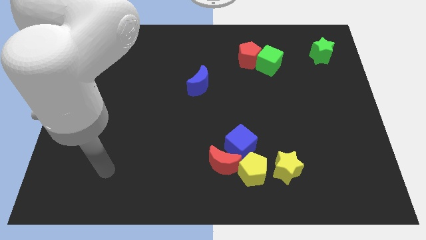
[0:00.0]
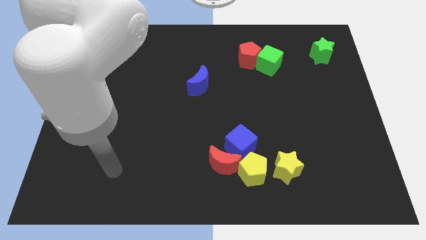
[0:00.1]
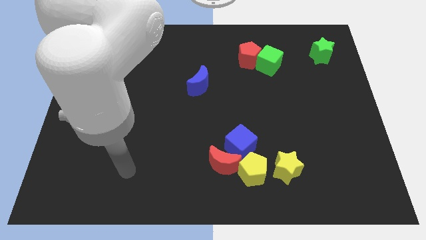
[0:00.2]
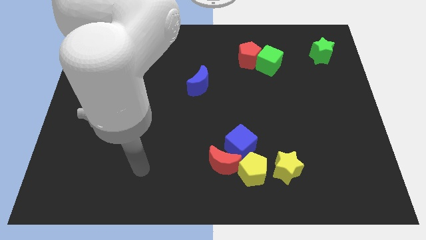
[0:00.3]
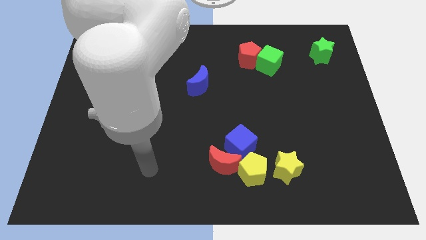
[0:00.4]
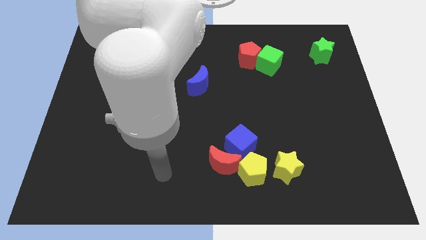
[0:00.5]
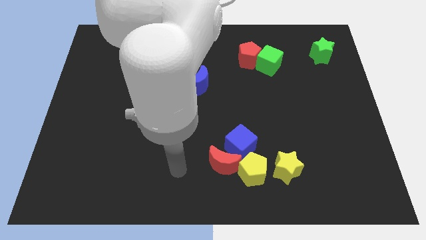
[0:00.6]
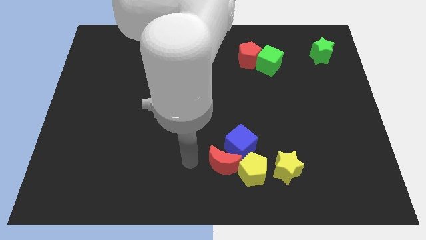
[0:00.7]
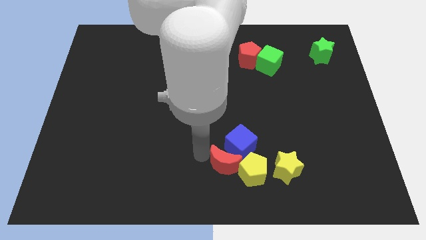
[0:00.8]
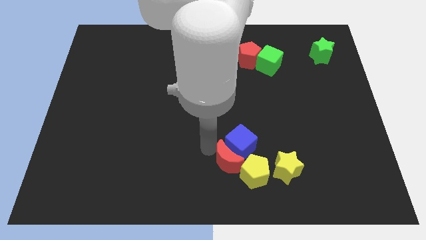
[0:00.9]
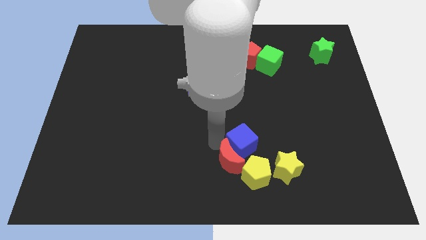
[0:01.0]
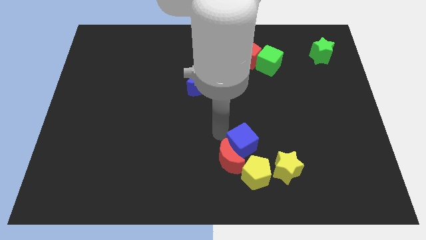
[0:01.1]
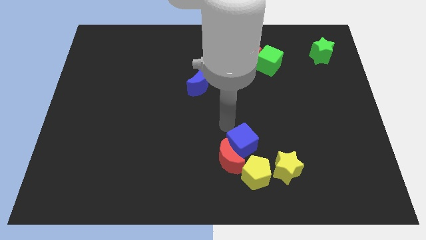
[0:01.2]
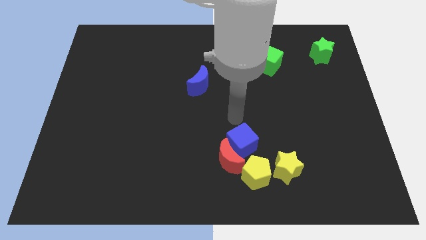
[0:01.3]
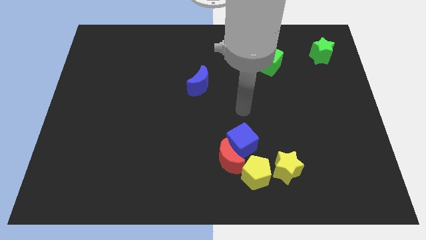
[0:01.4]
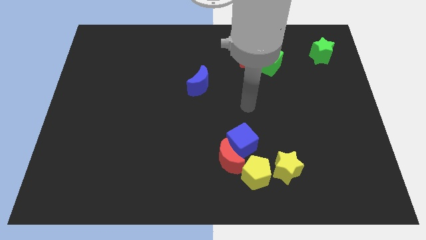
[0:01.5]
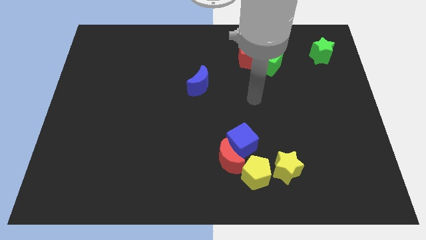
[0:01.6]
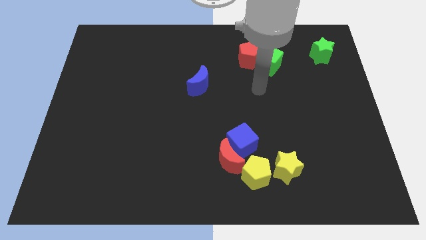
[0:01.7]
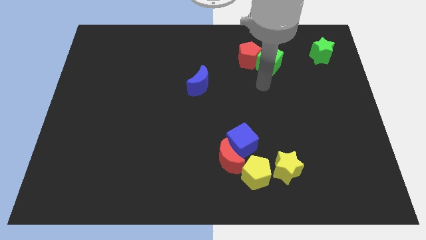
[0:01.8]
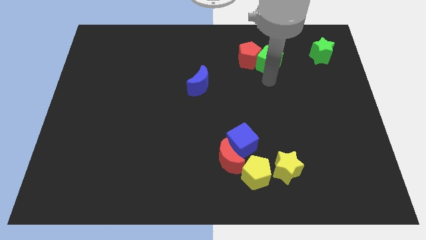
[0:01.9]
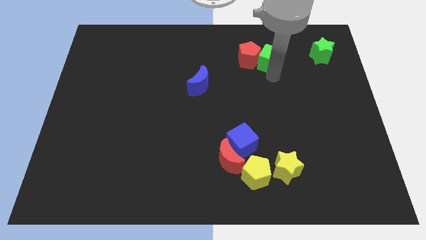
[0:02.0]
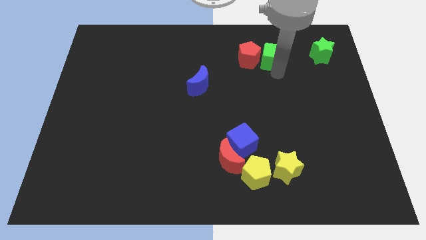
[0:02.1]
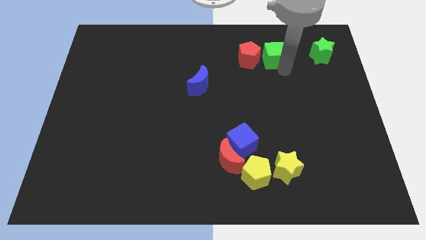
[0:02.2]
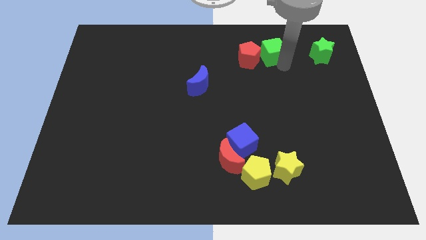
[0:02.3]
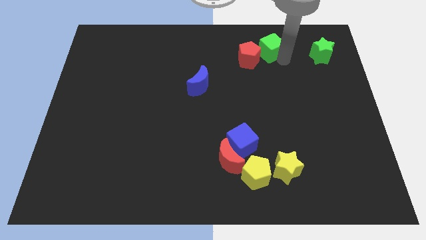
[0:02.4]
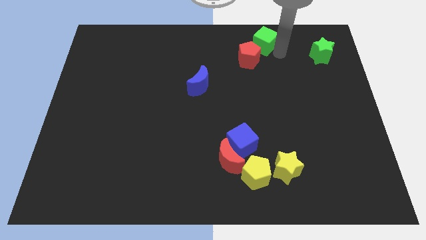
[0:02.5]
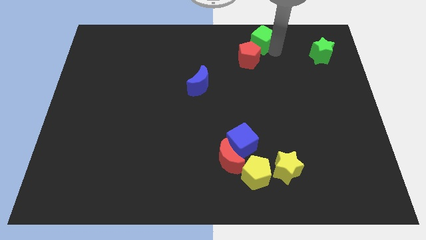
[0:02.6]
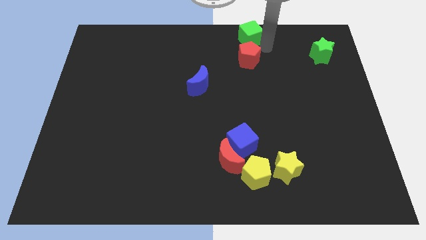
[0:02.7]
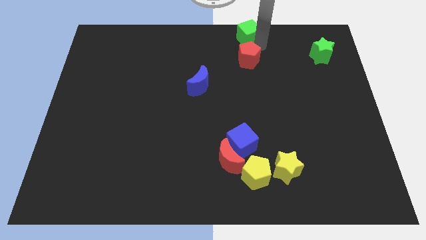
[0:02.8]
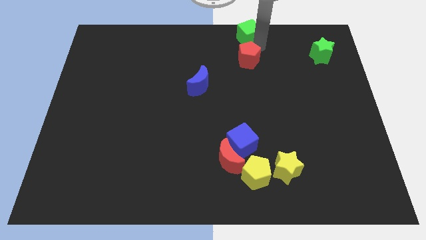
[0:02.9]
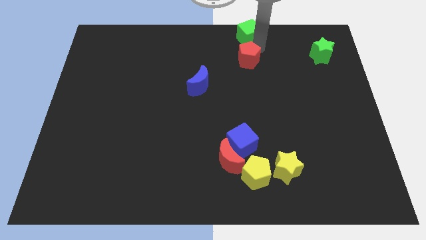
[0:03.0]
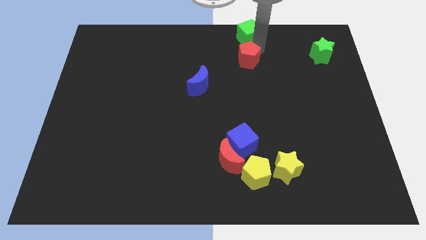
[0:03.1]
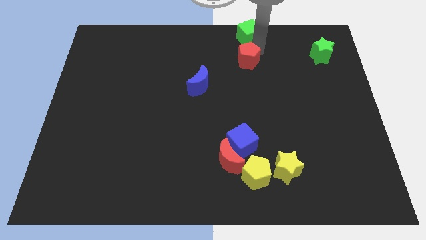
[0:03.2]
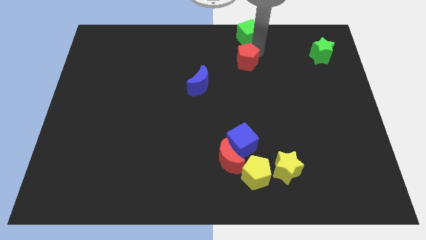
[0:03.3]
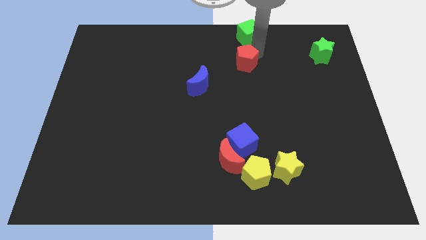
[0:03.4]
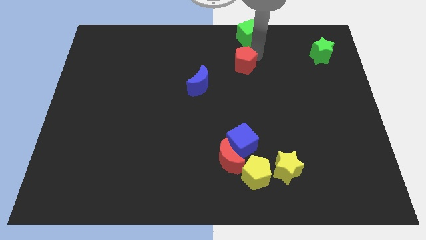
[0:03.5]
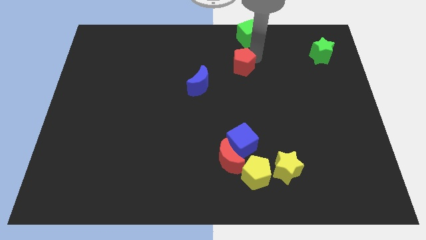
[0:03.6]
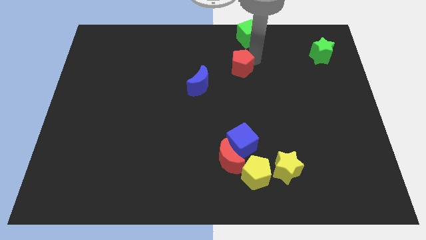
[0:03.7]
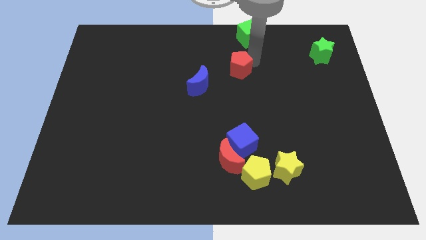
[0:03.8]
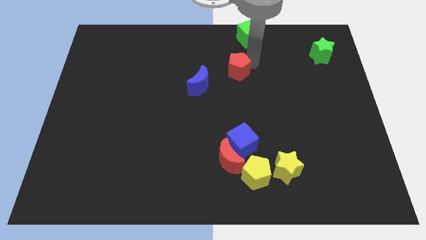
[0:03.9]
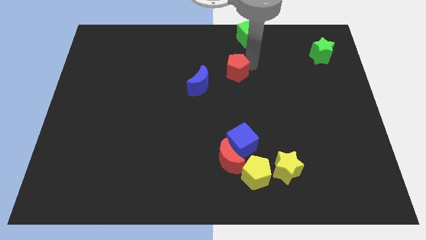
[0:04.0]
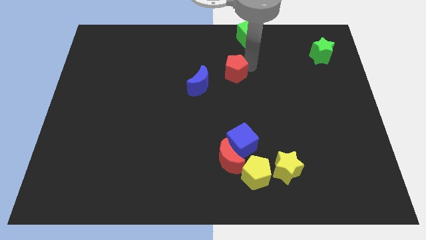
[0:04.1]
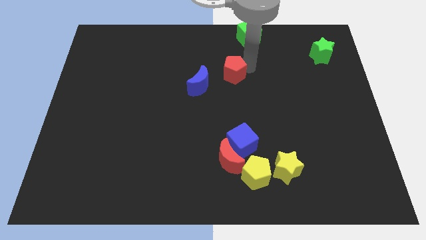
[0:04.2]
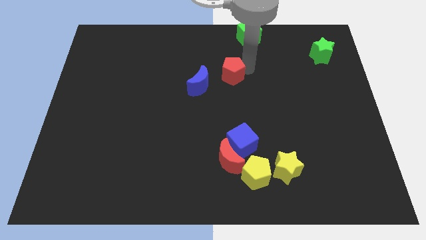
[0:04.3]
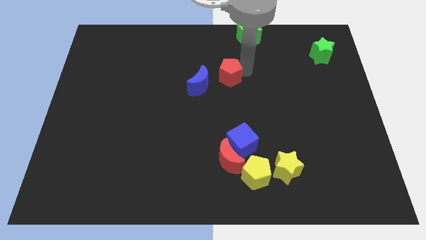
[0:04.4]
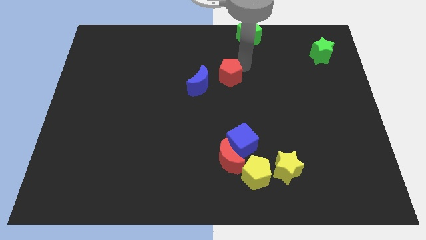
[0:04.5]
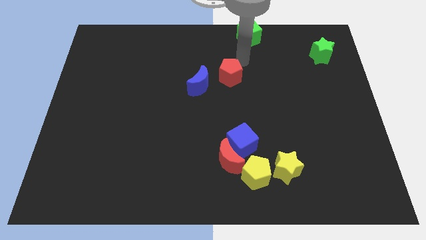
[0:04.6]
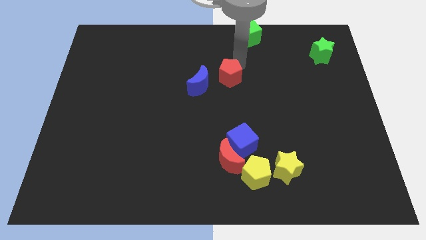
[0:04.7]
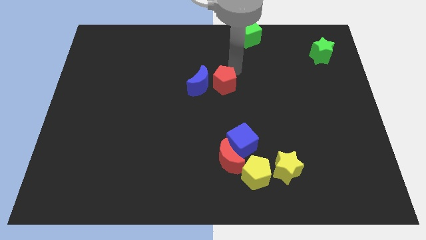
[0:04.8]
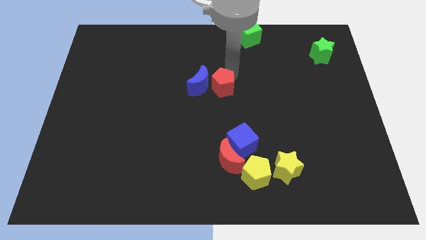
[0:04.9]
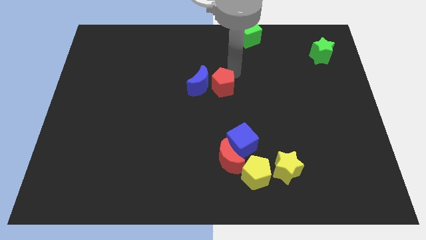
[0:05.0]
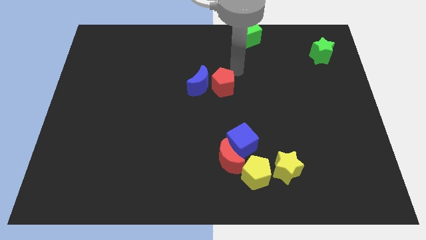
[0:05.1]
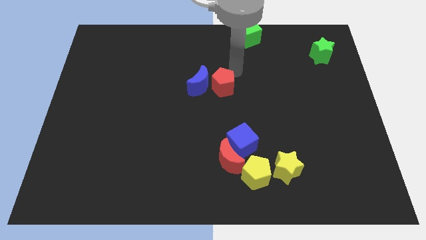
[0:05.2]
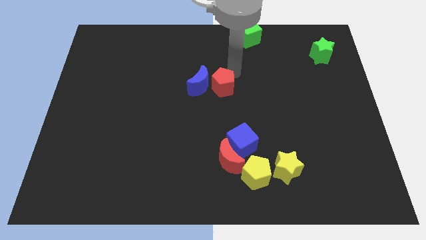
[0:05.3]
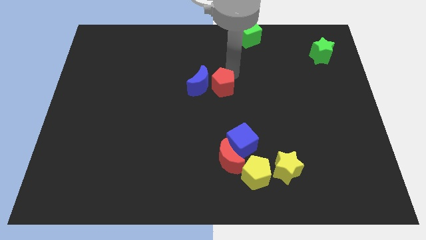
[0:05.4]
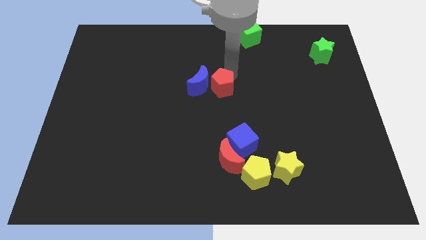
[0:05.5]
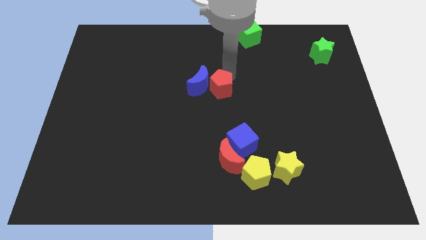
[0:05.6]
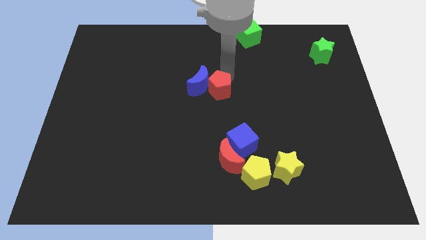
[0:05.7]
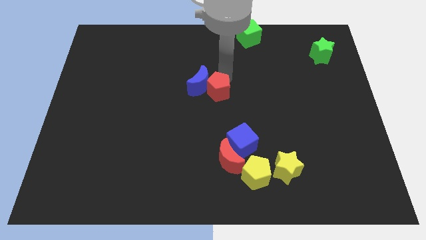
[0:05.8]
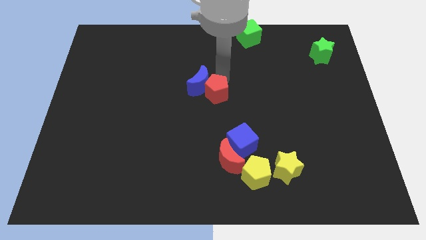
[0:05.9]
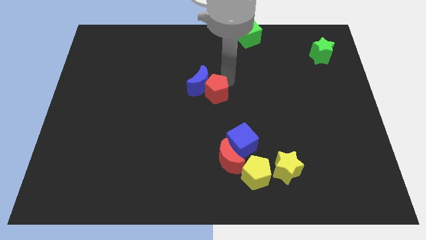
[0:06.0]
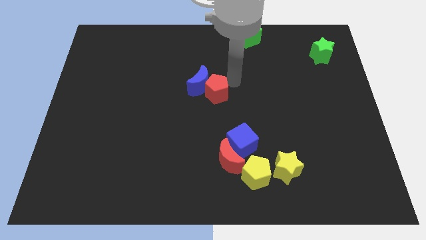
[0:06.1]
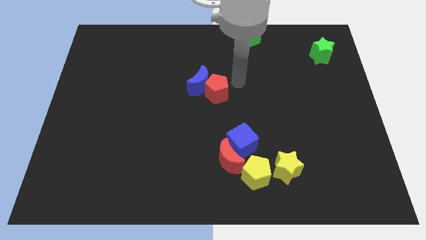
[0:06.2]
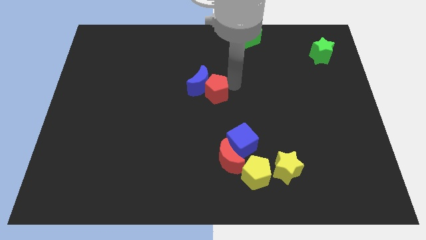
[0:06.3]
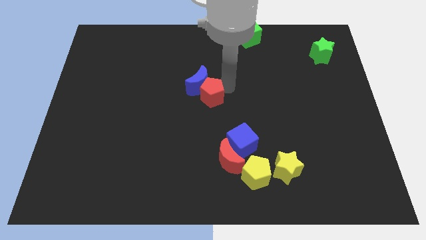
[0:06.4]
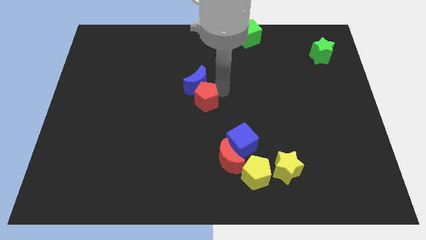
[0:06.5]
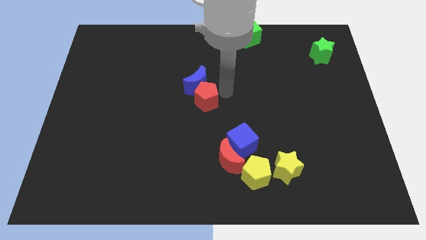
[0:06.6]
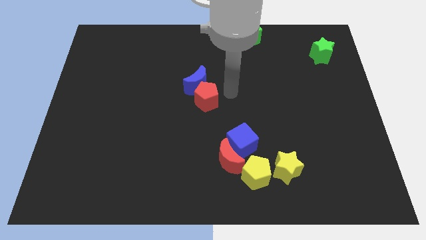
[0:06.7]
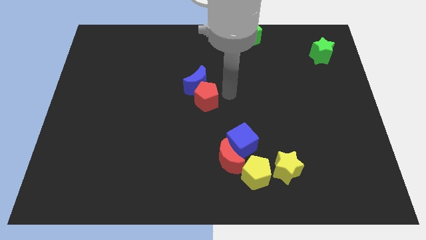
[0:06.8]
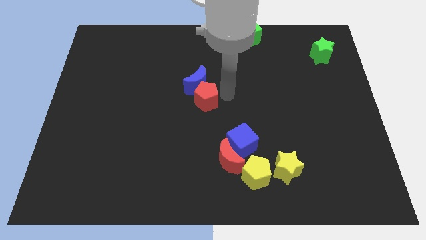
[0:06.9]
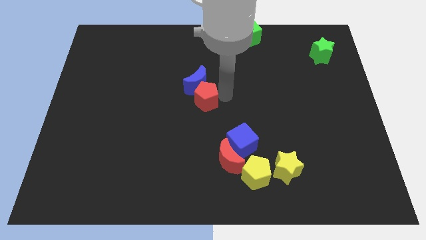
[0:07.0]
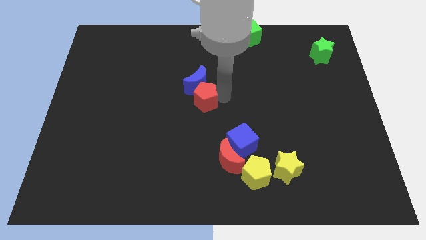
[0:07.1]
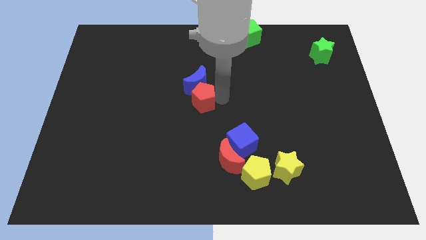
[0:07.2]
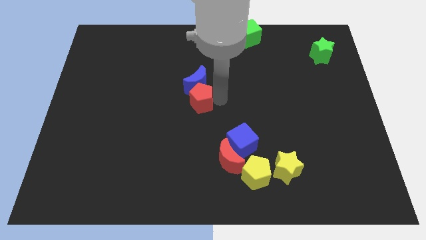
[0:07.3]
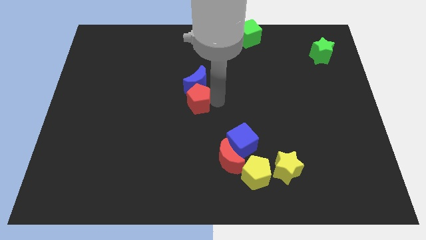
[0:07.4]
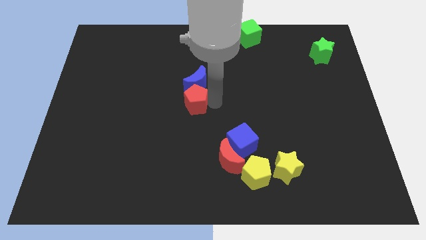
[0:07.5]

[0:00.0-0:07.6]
push the red pentagon down and to the left

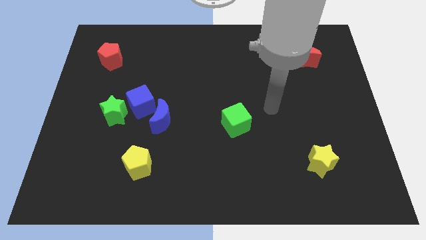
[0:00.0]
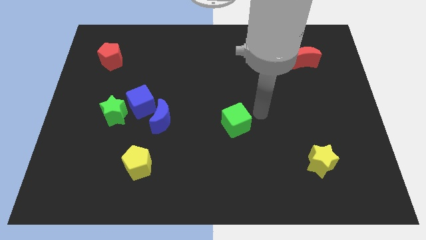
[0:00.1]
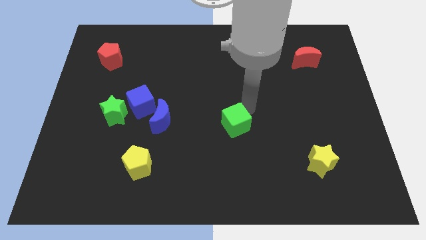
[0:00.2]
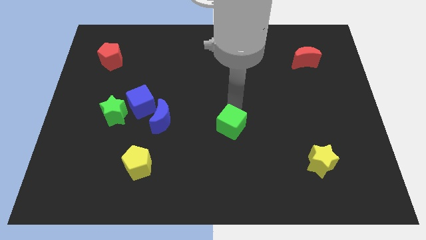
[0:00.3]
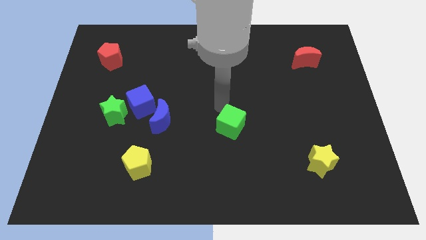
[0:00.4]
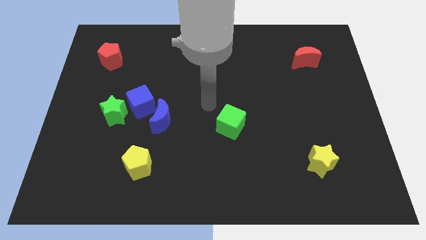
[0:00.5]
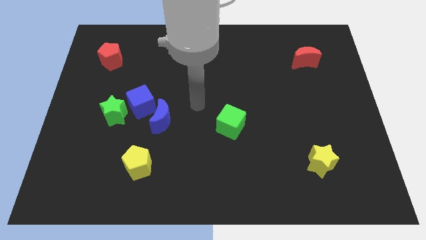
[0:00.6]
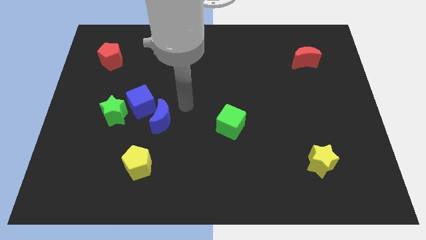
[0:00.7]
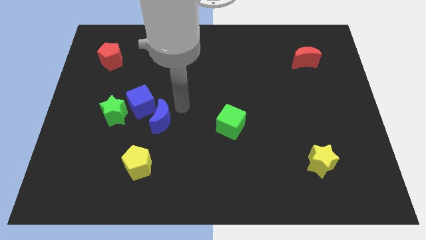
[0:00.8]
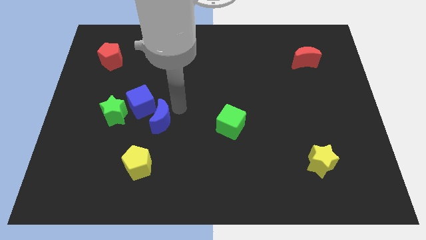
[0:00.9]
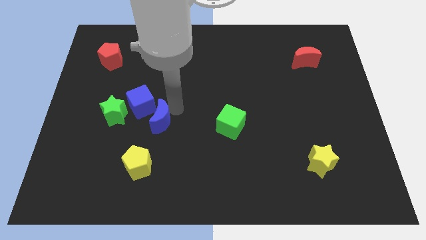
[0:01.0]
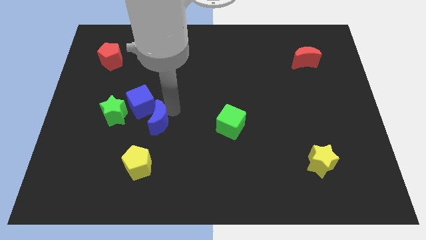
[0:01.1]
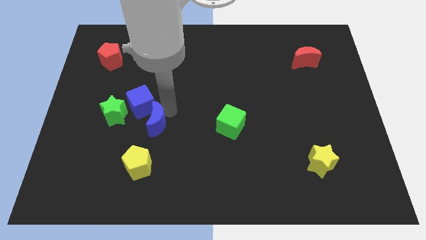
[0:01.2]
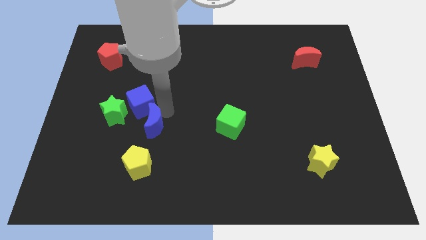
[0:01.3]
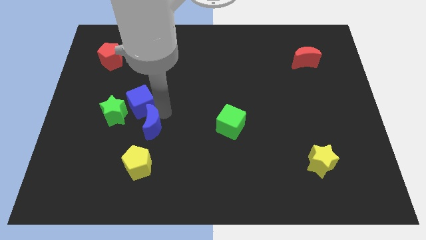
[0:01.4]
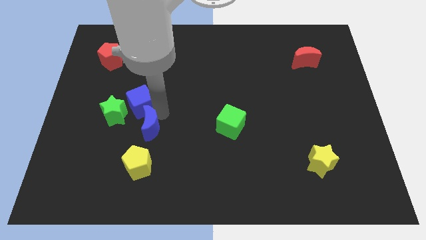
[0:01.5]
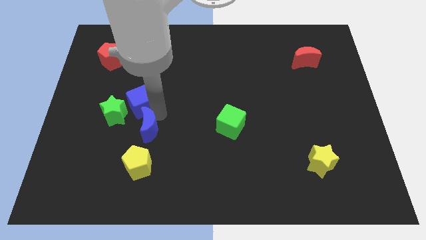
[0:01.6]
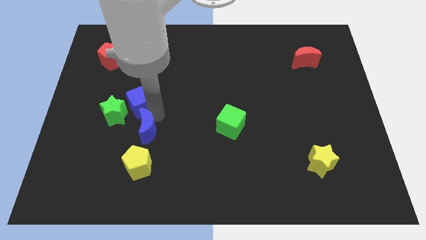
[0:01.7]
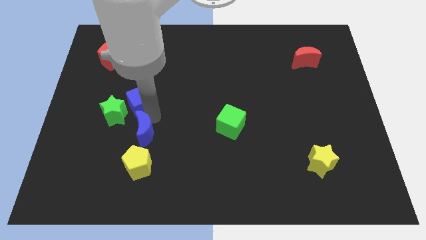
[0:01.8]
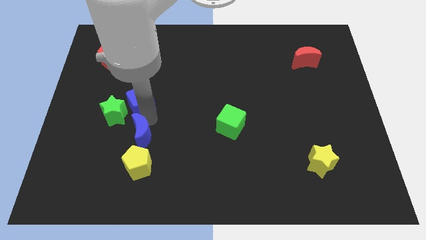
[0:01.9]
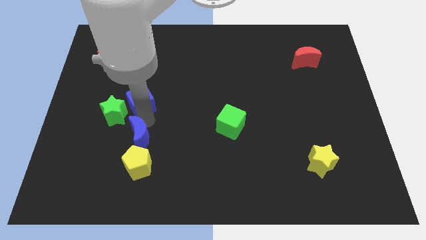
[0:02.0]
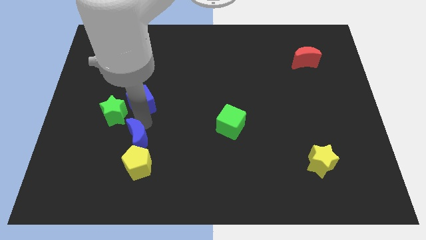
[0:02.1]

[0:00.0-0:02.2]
slide the blue moon downwards and to the left diagonally a little
